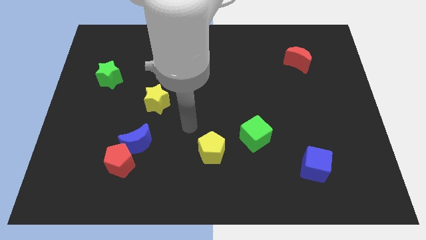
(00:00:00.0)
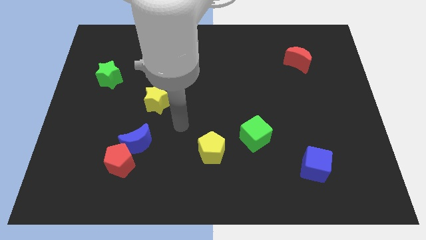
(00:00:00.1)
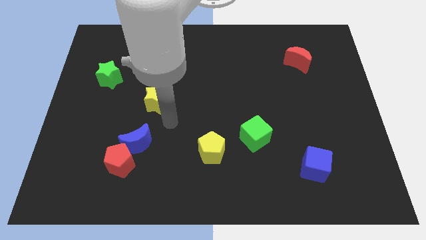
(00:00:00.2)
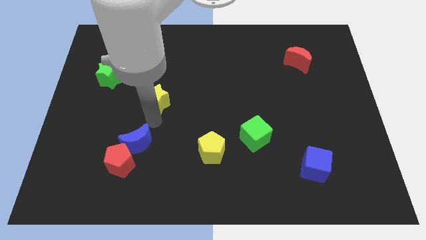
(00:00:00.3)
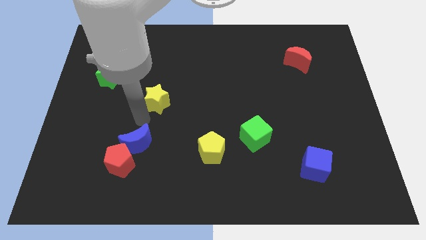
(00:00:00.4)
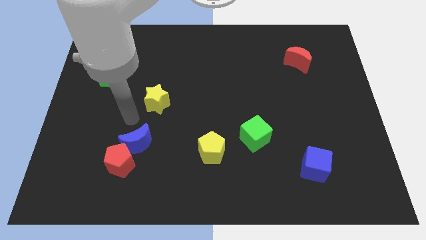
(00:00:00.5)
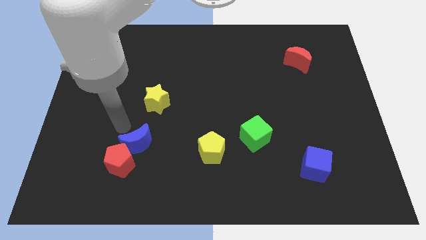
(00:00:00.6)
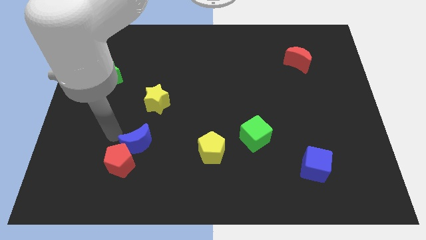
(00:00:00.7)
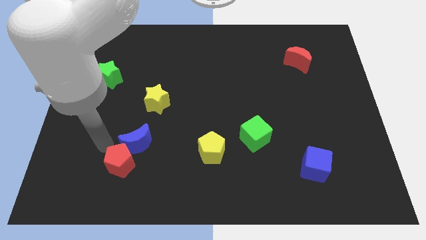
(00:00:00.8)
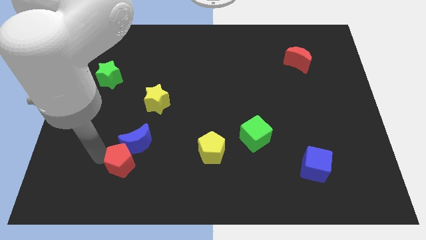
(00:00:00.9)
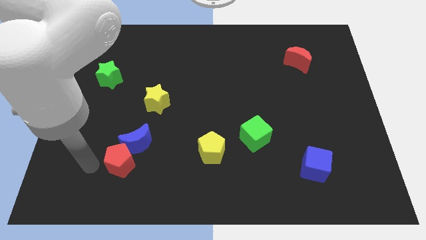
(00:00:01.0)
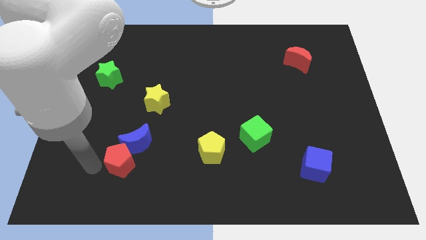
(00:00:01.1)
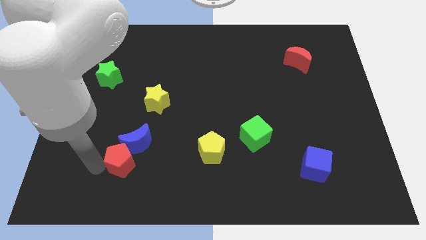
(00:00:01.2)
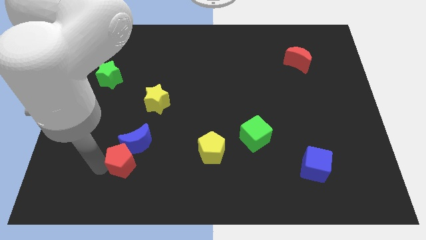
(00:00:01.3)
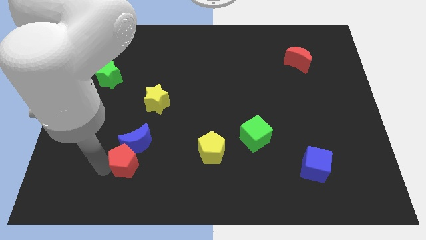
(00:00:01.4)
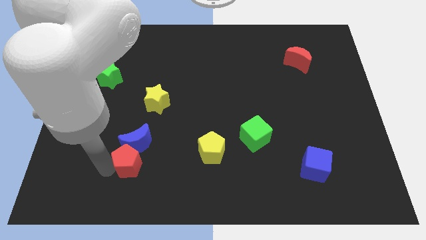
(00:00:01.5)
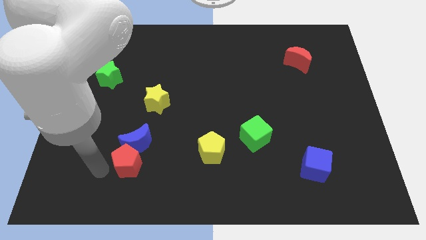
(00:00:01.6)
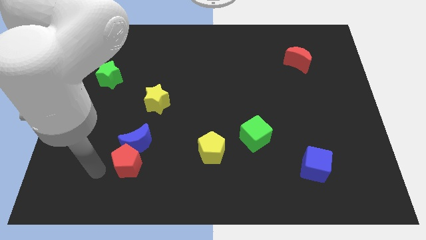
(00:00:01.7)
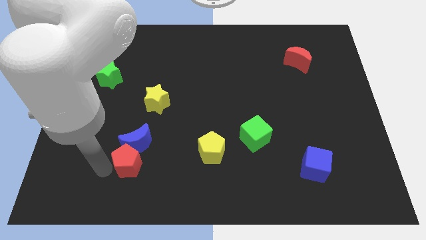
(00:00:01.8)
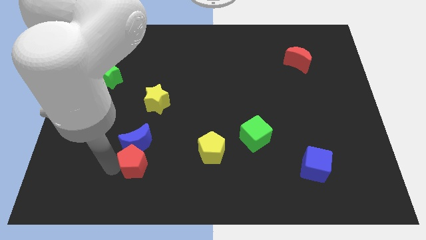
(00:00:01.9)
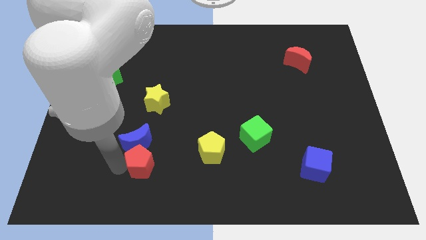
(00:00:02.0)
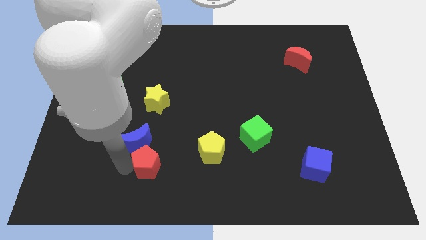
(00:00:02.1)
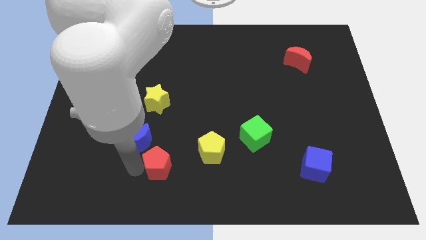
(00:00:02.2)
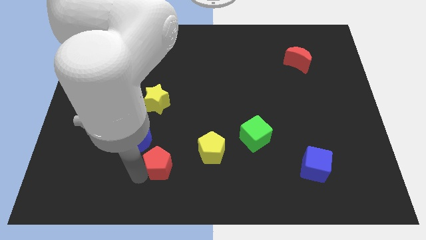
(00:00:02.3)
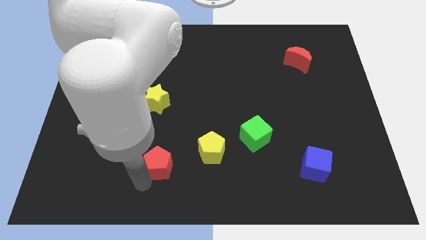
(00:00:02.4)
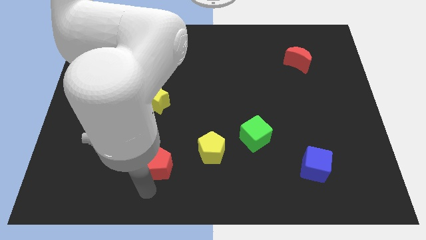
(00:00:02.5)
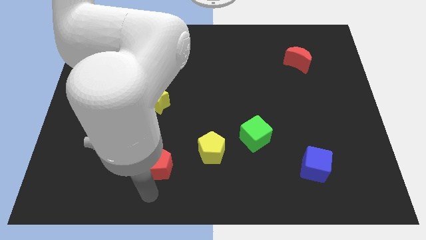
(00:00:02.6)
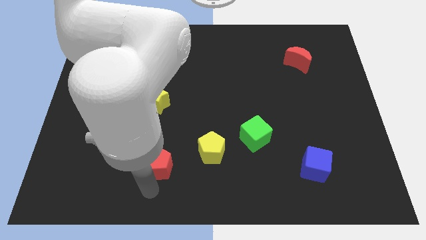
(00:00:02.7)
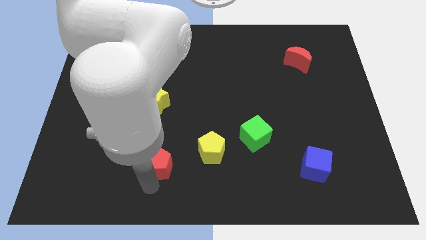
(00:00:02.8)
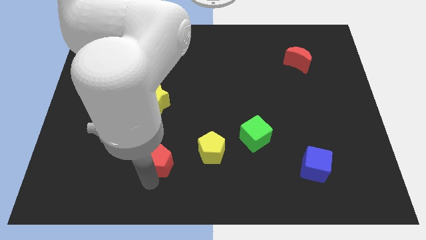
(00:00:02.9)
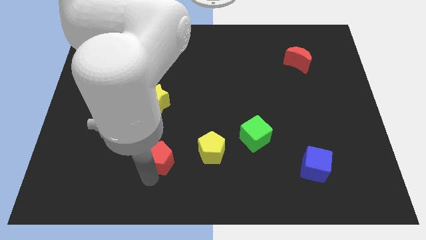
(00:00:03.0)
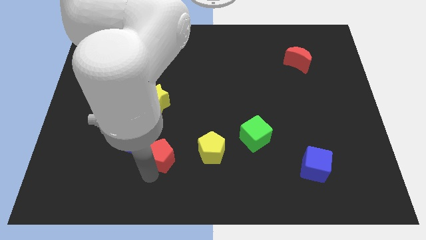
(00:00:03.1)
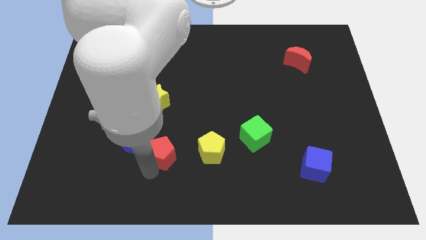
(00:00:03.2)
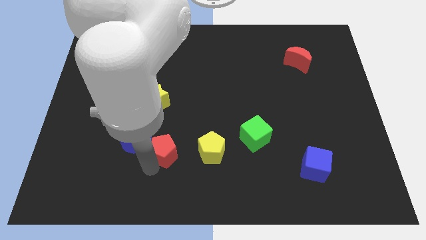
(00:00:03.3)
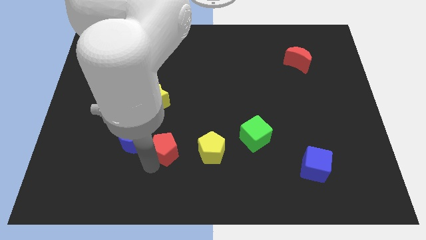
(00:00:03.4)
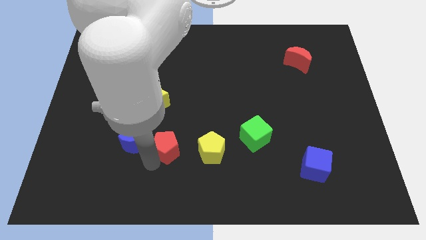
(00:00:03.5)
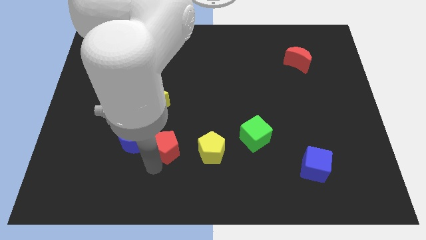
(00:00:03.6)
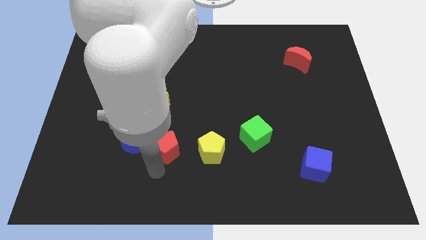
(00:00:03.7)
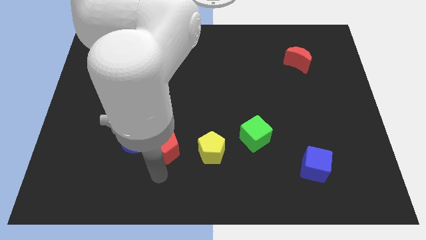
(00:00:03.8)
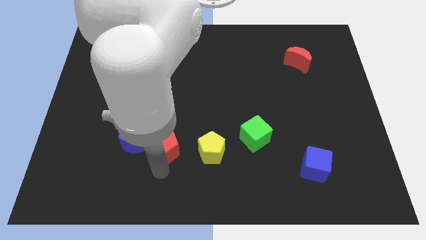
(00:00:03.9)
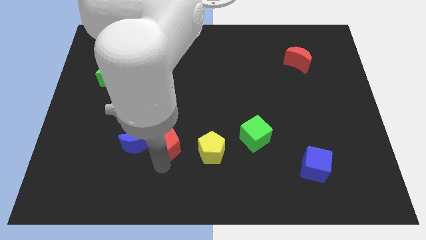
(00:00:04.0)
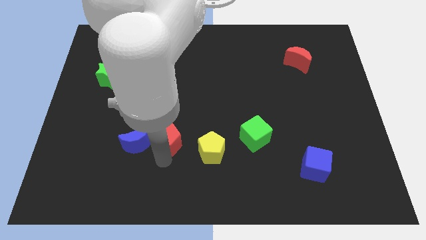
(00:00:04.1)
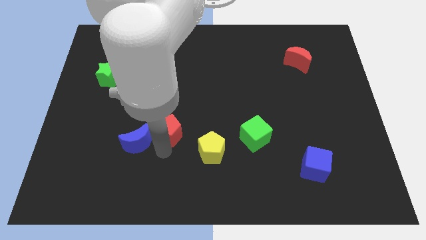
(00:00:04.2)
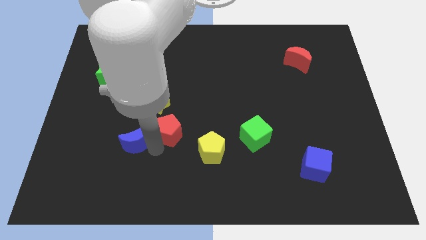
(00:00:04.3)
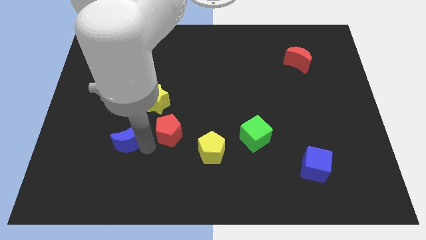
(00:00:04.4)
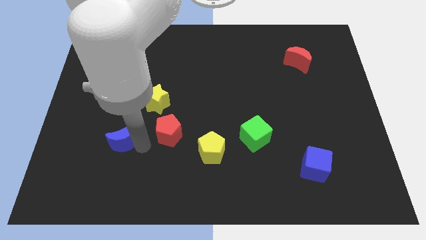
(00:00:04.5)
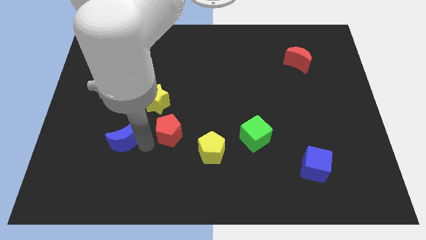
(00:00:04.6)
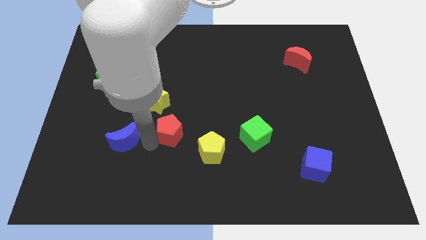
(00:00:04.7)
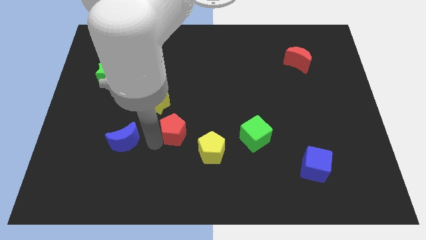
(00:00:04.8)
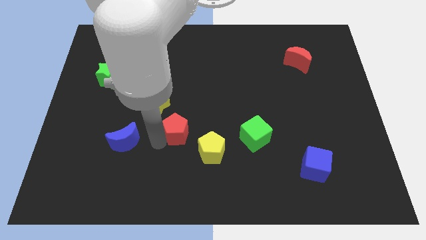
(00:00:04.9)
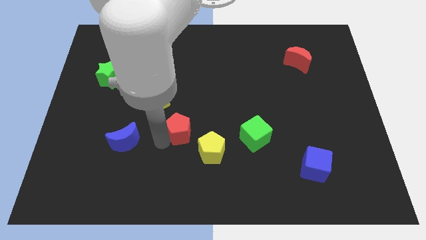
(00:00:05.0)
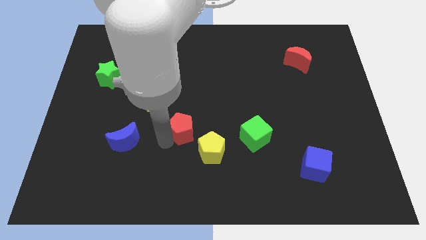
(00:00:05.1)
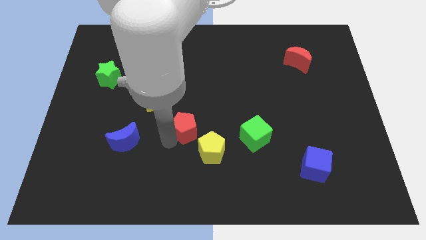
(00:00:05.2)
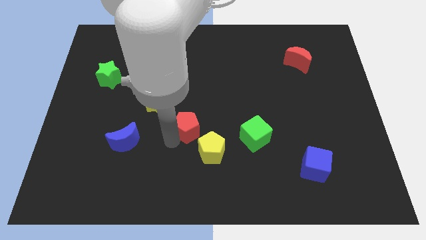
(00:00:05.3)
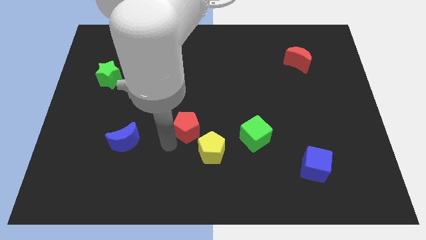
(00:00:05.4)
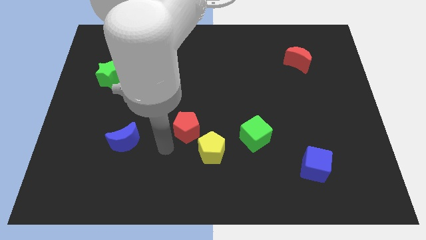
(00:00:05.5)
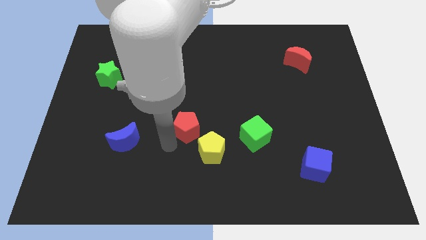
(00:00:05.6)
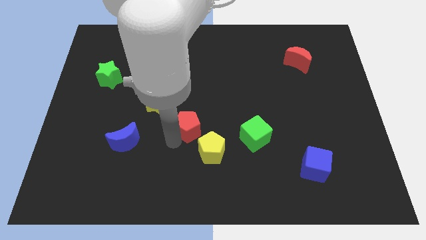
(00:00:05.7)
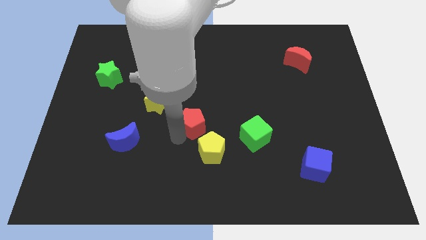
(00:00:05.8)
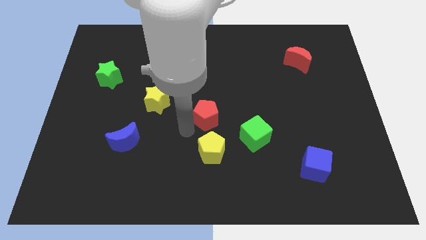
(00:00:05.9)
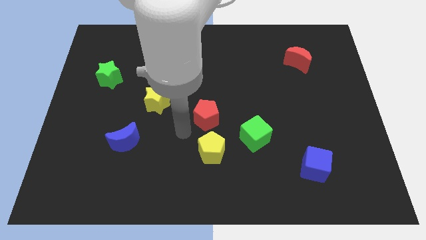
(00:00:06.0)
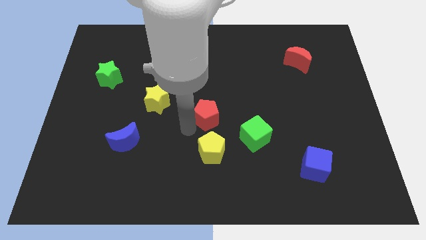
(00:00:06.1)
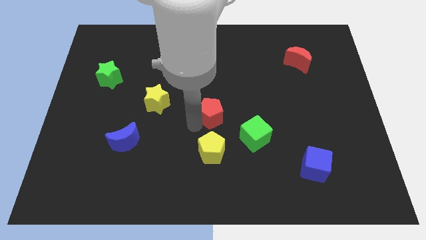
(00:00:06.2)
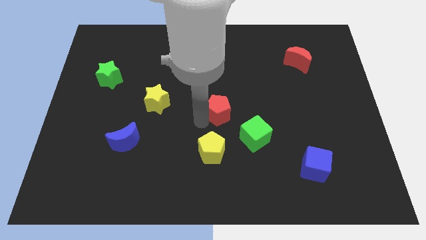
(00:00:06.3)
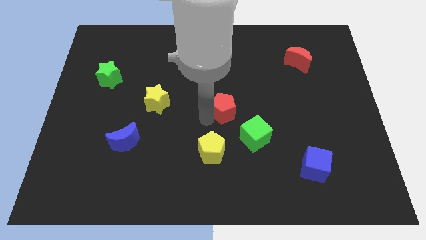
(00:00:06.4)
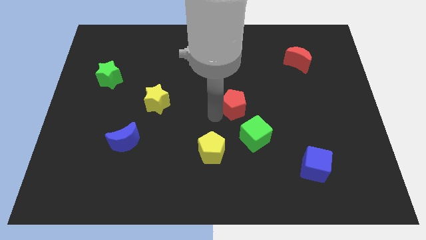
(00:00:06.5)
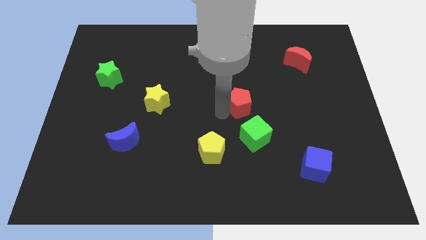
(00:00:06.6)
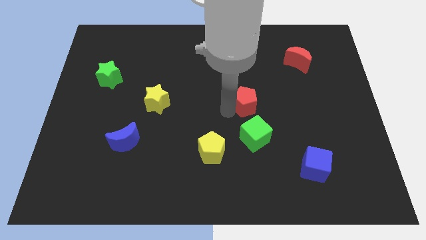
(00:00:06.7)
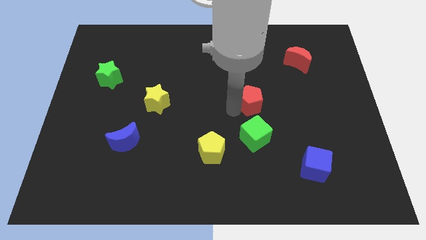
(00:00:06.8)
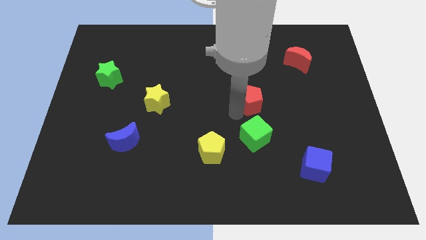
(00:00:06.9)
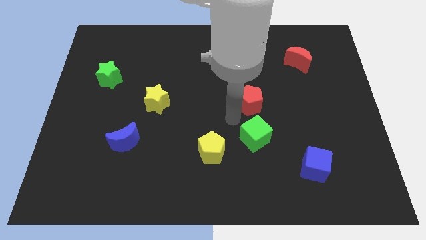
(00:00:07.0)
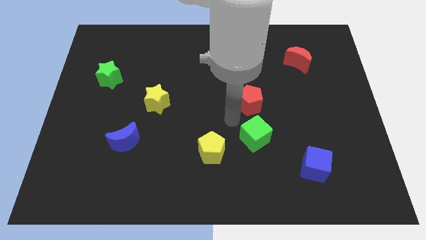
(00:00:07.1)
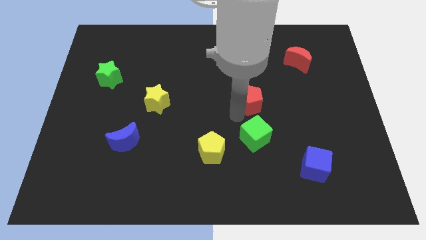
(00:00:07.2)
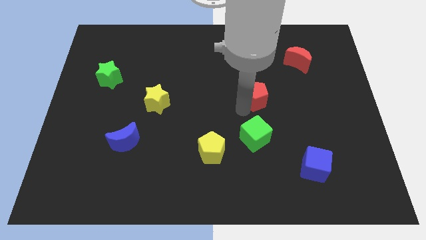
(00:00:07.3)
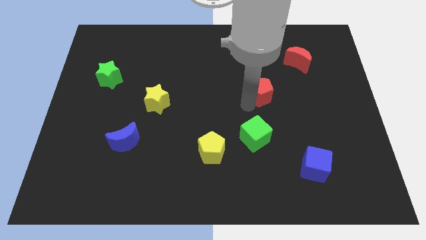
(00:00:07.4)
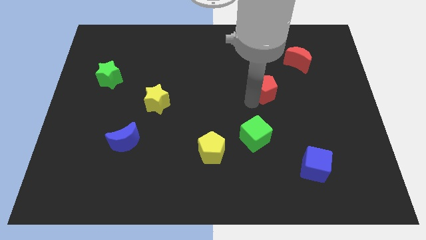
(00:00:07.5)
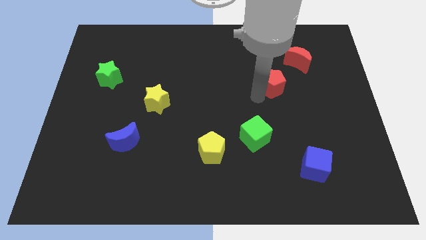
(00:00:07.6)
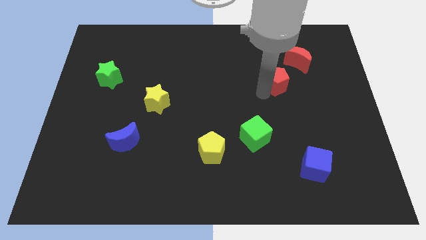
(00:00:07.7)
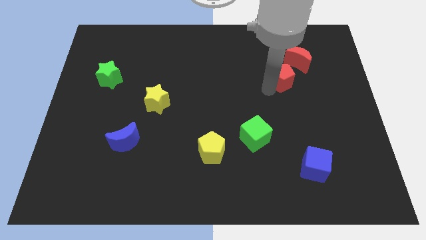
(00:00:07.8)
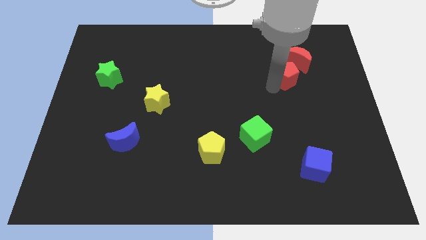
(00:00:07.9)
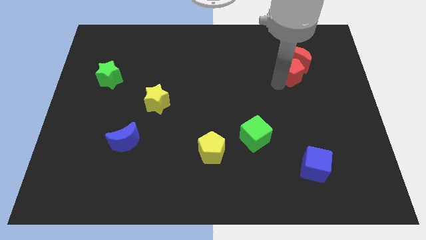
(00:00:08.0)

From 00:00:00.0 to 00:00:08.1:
push the red pentagon next to the red moon
